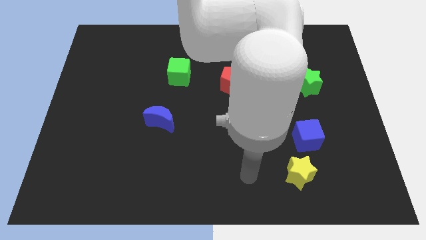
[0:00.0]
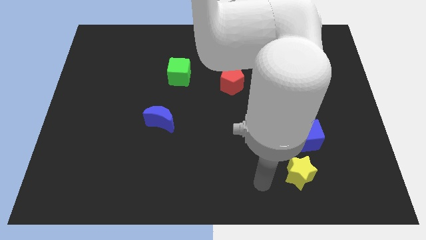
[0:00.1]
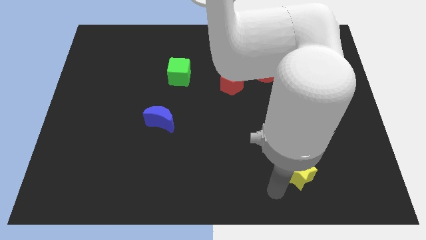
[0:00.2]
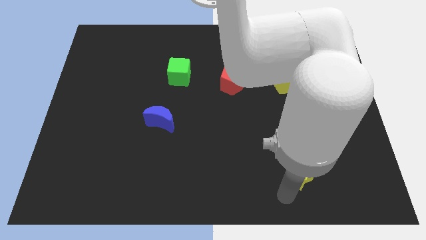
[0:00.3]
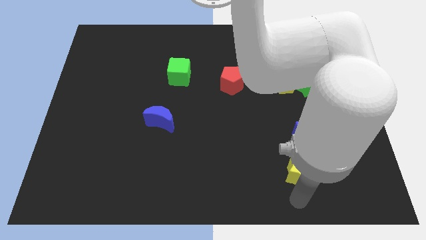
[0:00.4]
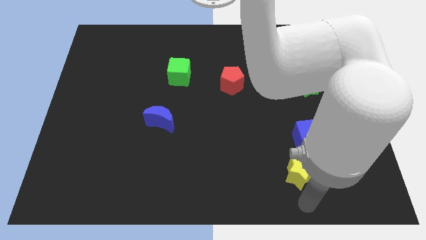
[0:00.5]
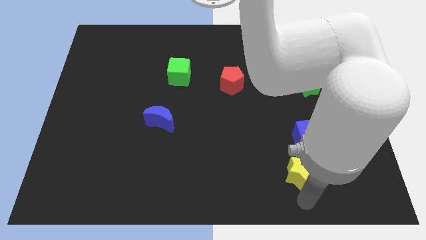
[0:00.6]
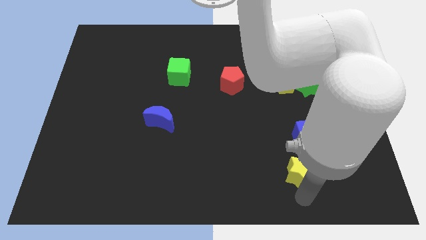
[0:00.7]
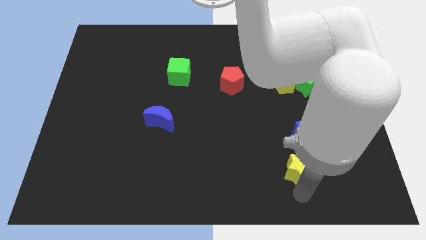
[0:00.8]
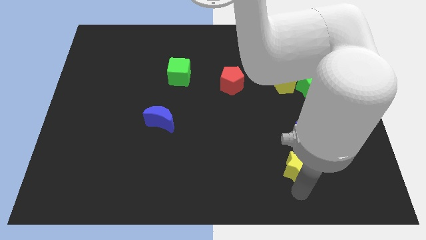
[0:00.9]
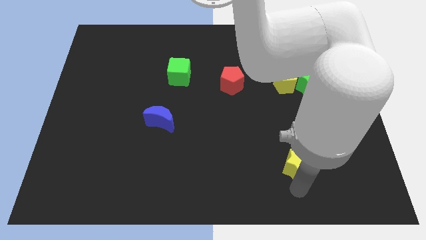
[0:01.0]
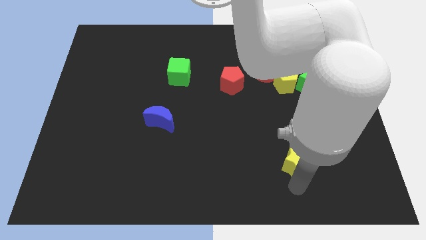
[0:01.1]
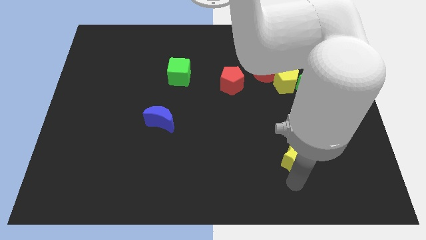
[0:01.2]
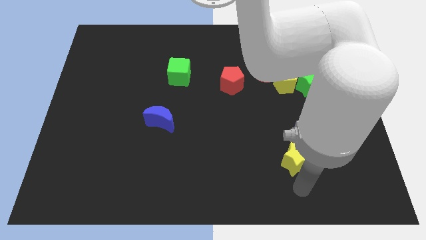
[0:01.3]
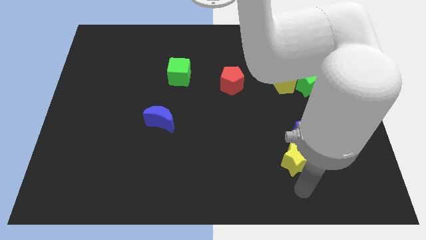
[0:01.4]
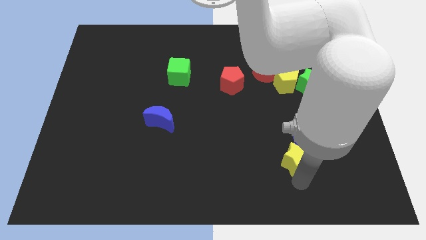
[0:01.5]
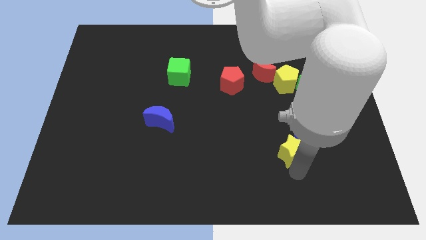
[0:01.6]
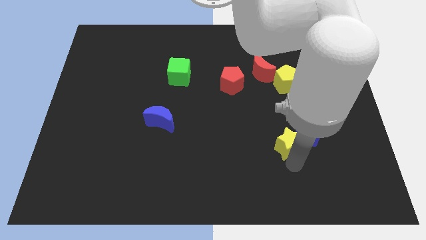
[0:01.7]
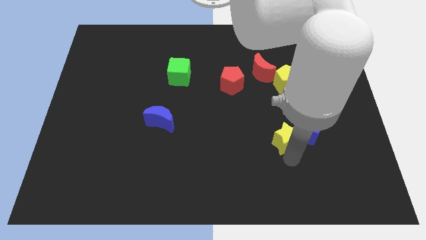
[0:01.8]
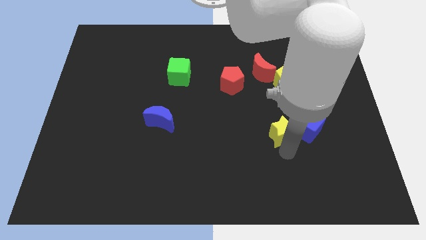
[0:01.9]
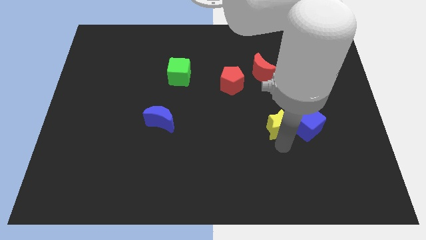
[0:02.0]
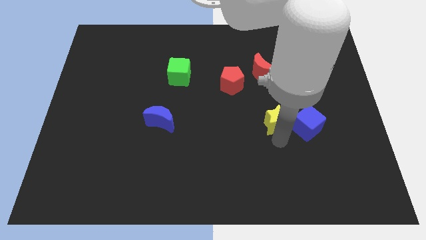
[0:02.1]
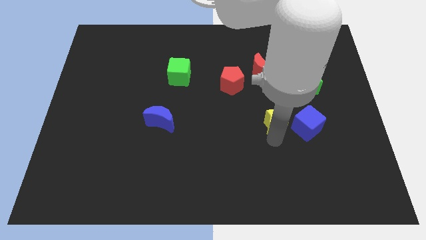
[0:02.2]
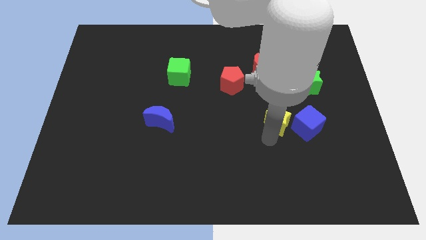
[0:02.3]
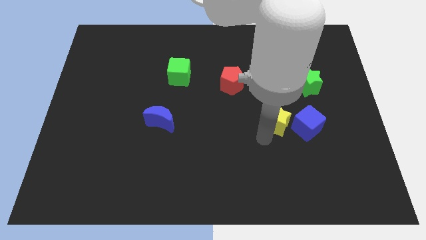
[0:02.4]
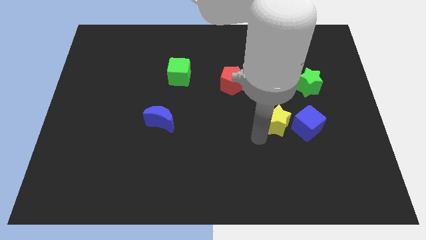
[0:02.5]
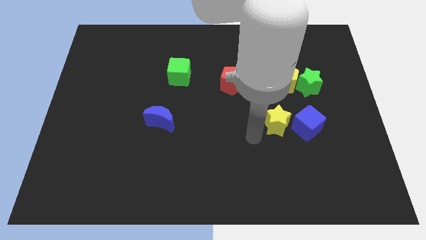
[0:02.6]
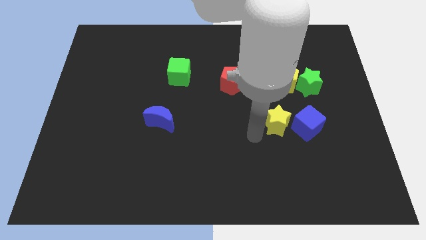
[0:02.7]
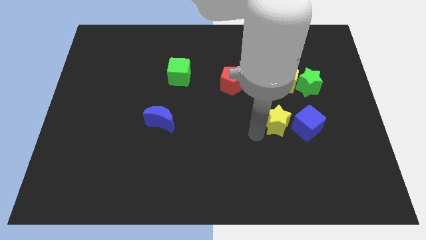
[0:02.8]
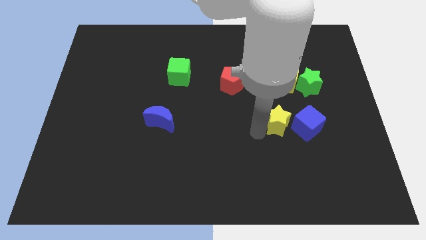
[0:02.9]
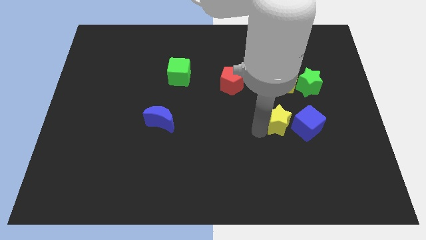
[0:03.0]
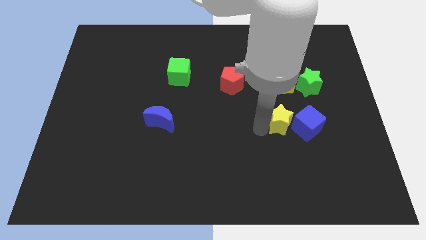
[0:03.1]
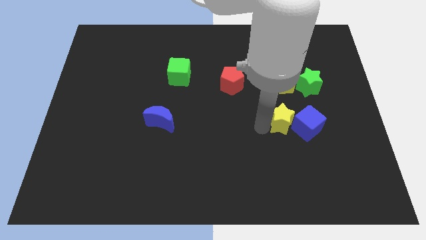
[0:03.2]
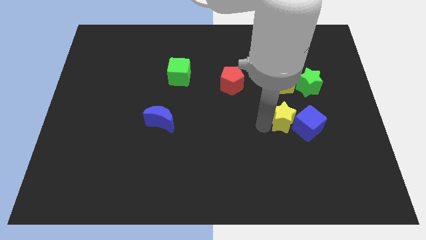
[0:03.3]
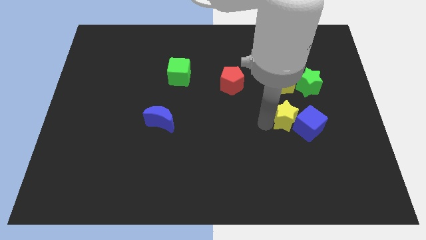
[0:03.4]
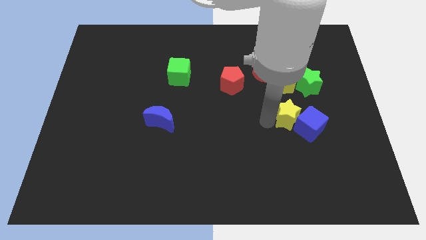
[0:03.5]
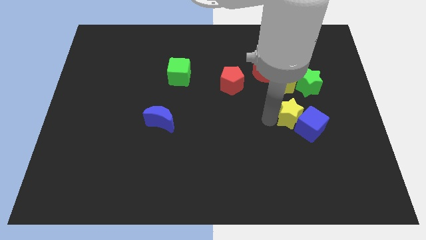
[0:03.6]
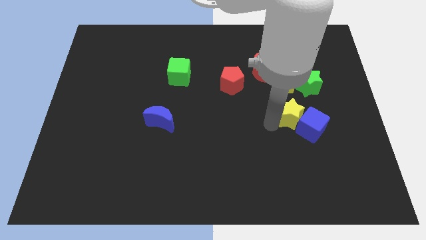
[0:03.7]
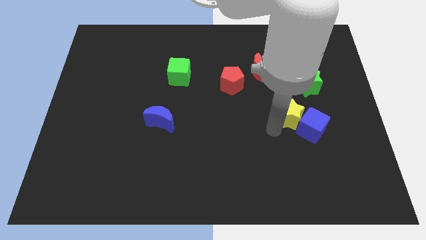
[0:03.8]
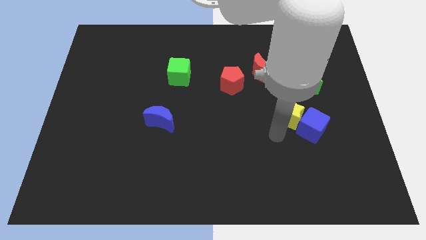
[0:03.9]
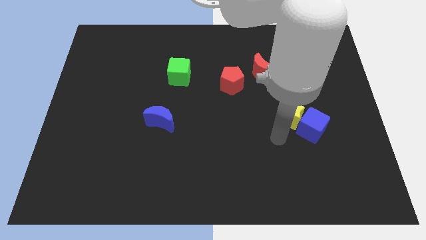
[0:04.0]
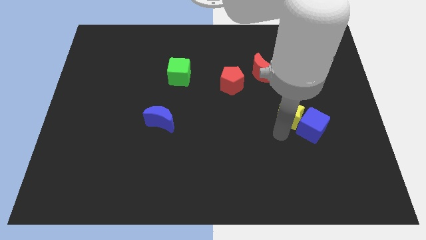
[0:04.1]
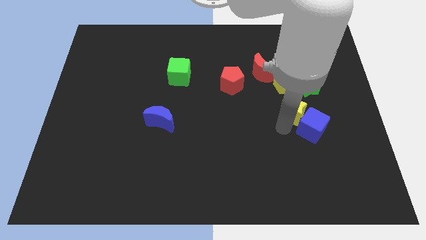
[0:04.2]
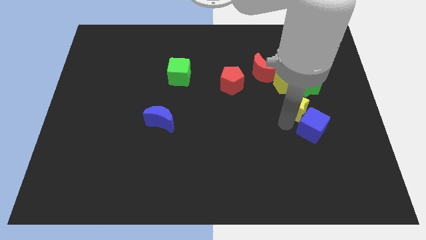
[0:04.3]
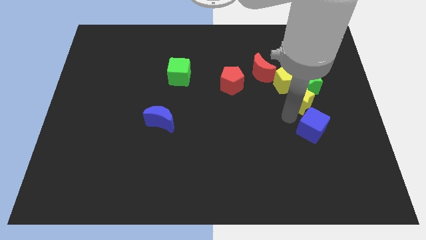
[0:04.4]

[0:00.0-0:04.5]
push the yellow star next to the green star

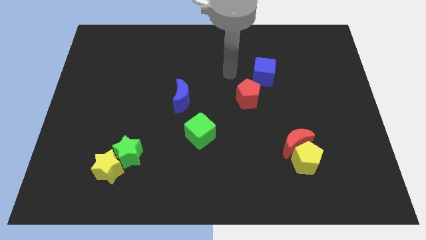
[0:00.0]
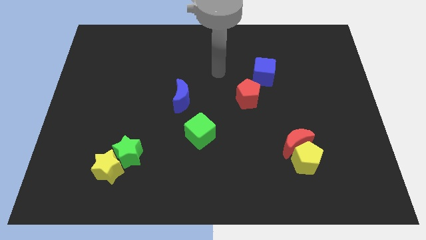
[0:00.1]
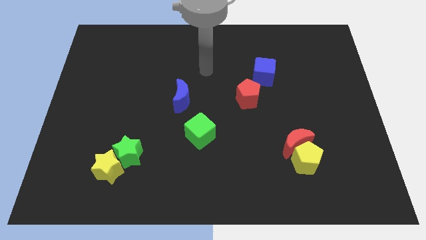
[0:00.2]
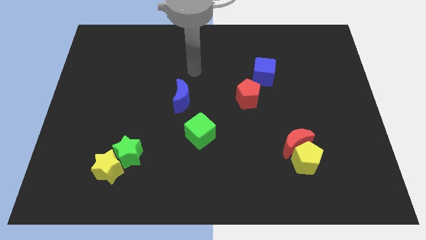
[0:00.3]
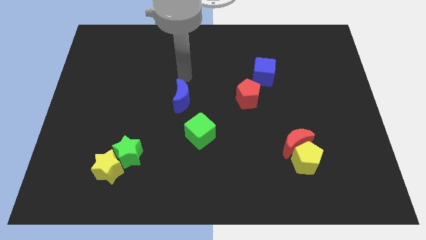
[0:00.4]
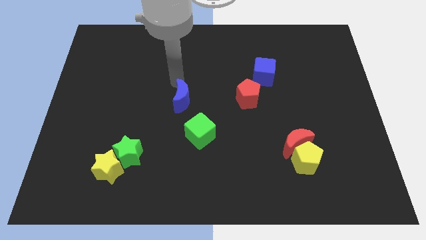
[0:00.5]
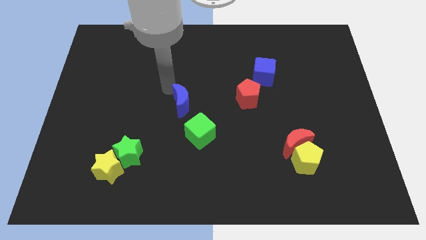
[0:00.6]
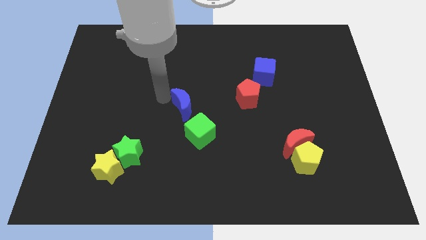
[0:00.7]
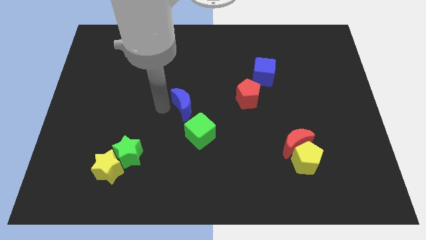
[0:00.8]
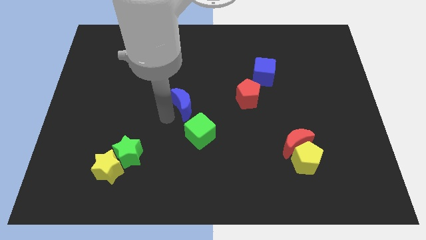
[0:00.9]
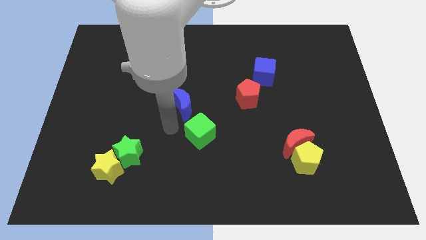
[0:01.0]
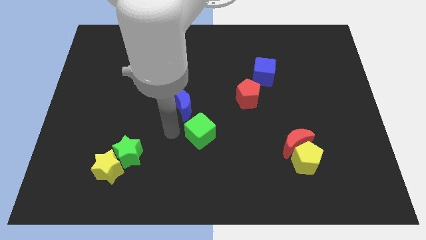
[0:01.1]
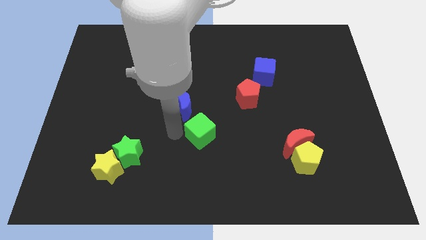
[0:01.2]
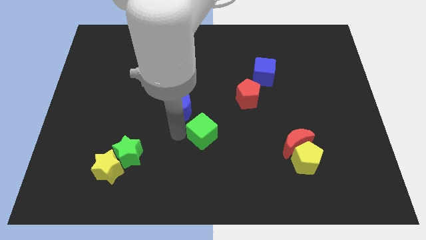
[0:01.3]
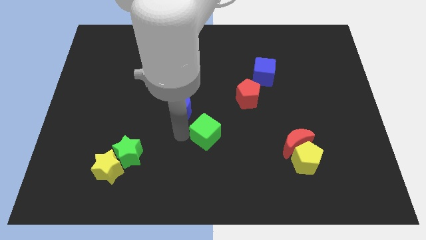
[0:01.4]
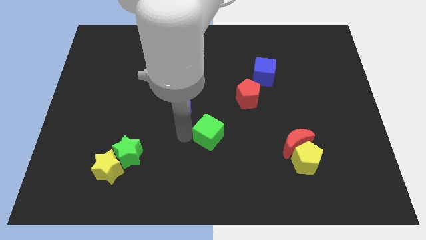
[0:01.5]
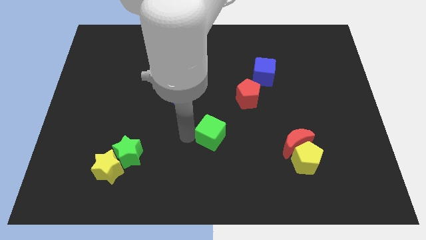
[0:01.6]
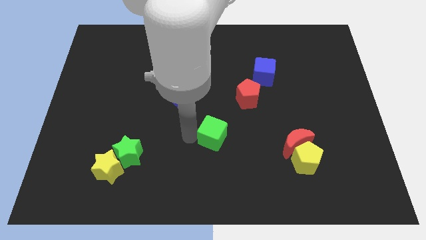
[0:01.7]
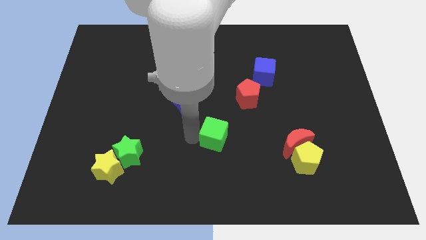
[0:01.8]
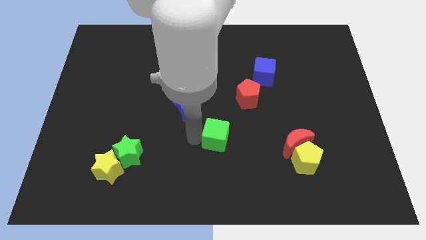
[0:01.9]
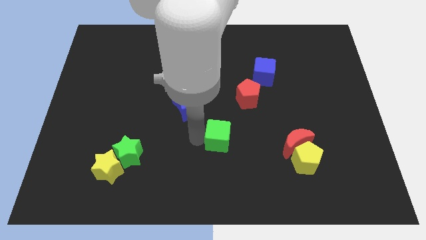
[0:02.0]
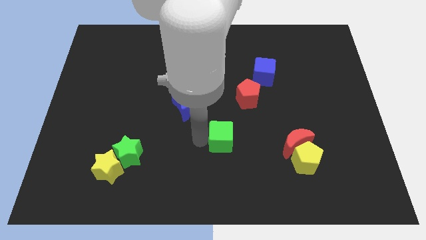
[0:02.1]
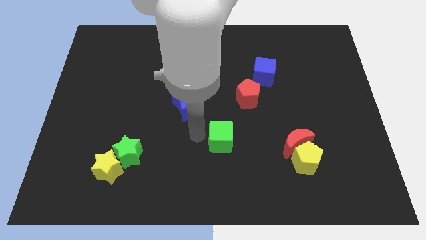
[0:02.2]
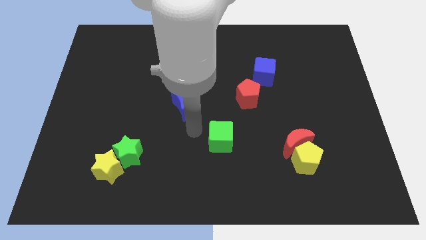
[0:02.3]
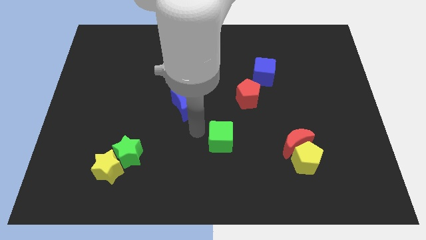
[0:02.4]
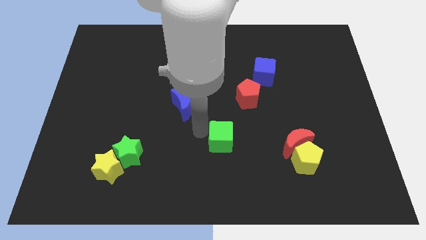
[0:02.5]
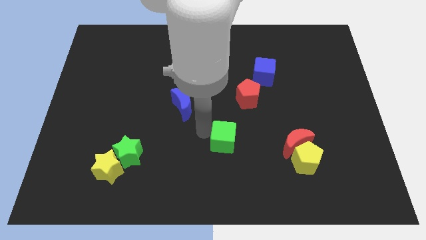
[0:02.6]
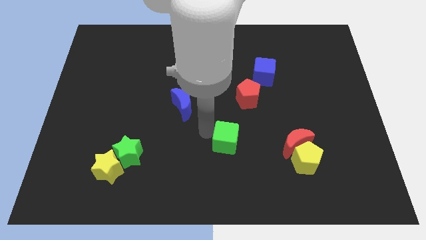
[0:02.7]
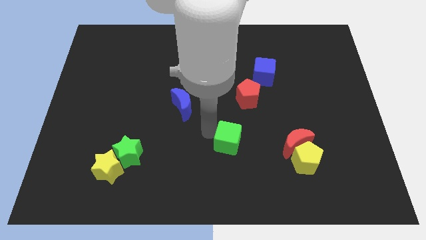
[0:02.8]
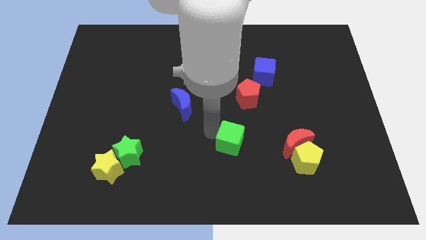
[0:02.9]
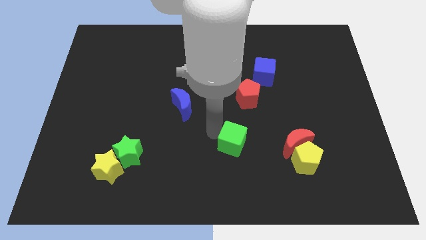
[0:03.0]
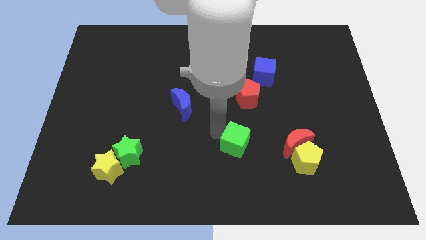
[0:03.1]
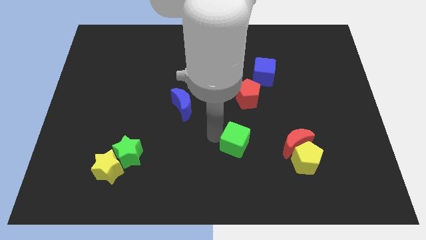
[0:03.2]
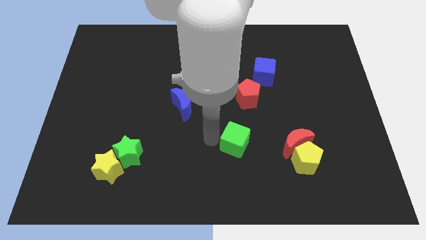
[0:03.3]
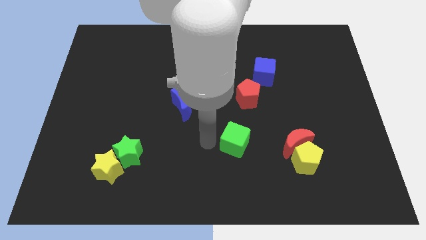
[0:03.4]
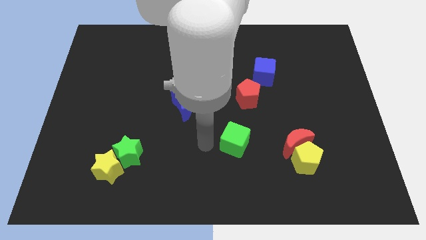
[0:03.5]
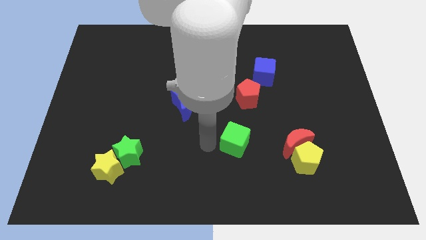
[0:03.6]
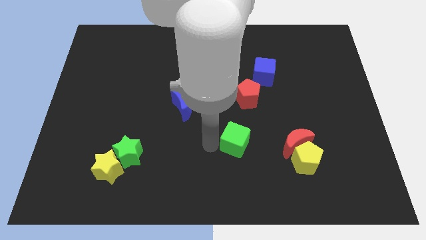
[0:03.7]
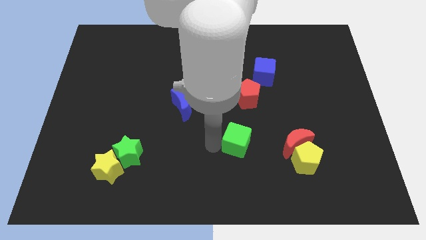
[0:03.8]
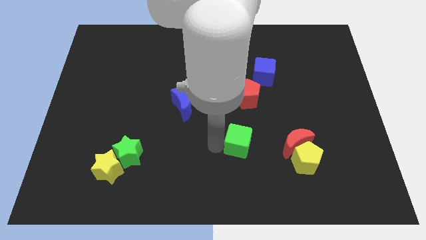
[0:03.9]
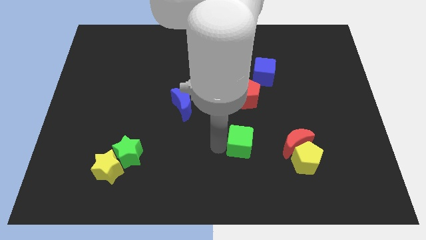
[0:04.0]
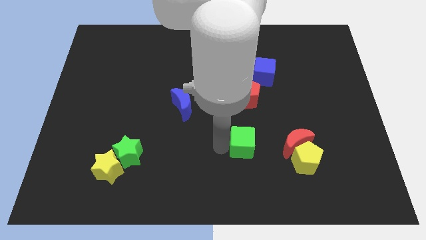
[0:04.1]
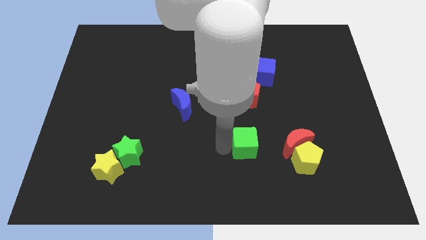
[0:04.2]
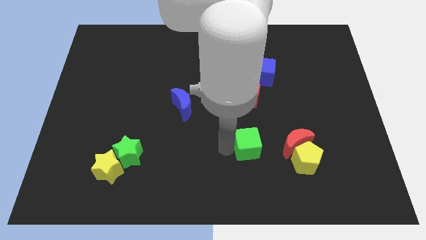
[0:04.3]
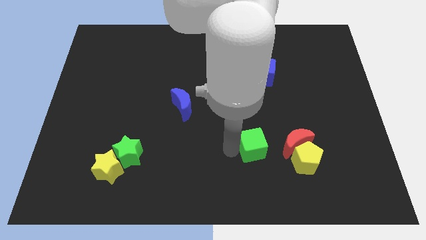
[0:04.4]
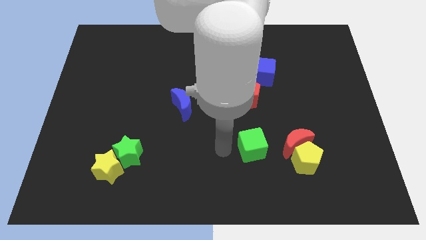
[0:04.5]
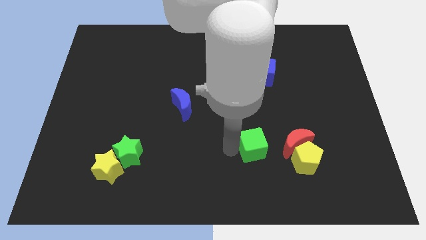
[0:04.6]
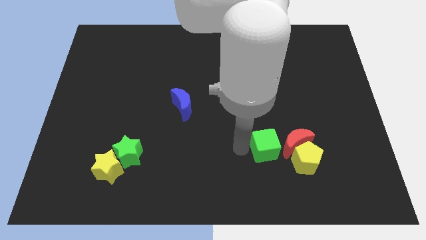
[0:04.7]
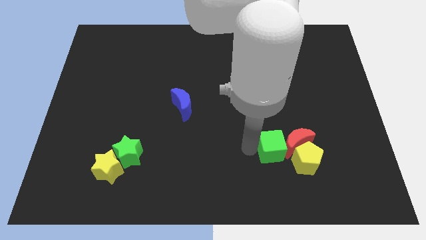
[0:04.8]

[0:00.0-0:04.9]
put the green cube next to the red moon
